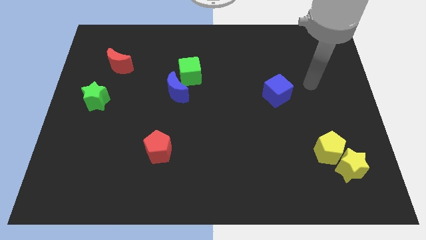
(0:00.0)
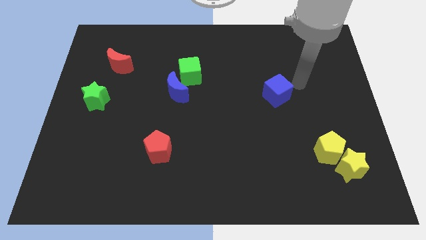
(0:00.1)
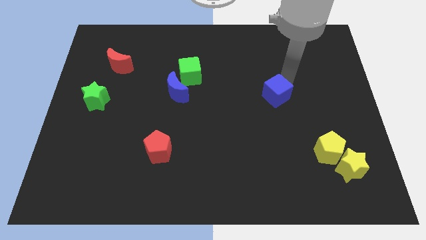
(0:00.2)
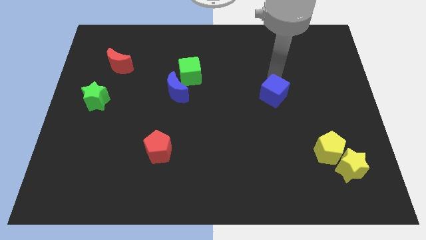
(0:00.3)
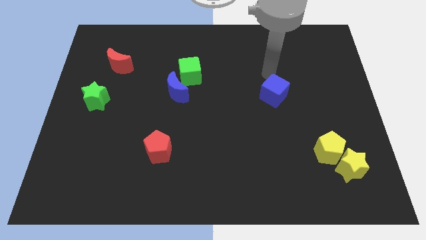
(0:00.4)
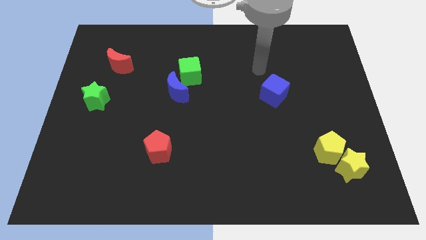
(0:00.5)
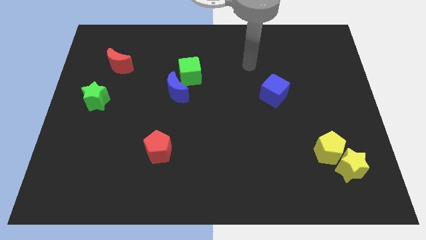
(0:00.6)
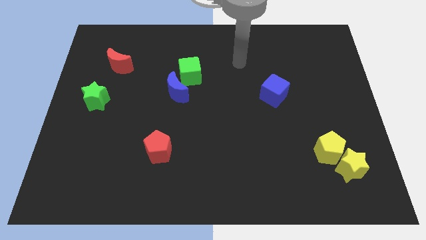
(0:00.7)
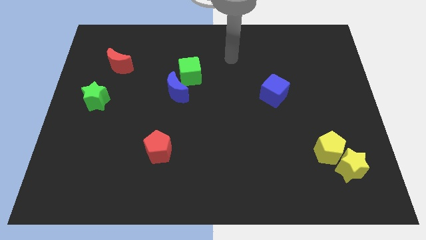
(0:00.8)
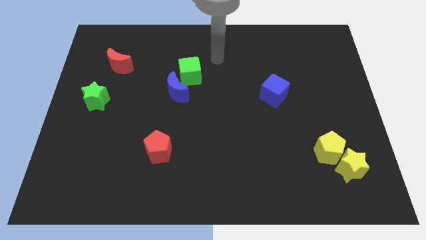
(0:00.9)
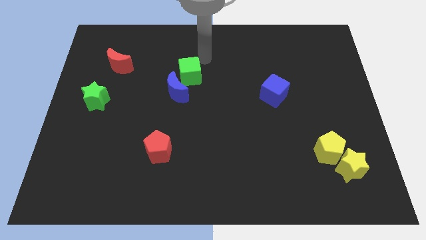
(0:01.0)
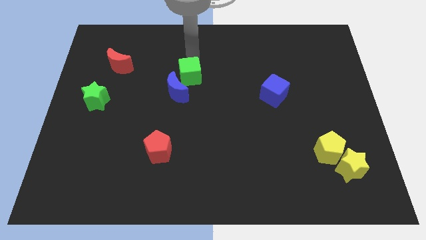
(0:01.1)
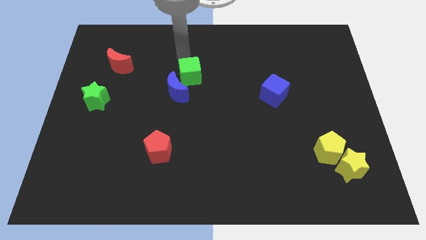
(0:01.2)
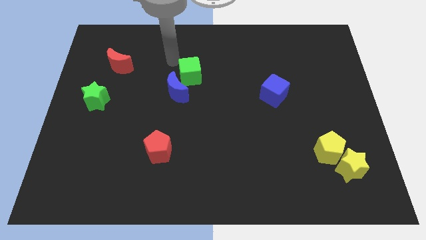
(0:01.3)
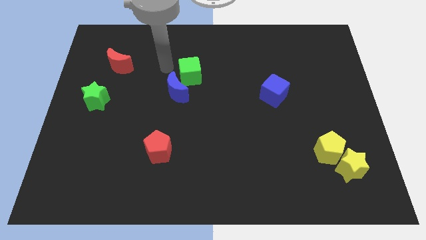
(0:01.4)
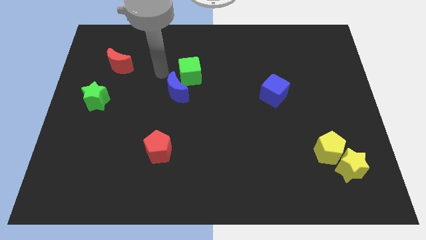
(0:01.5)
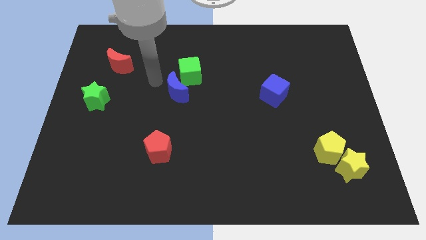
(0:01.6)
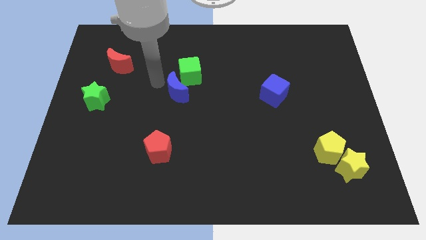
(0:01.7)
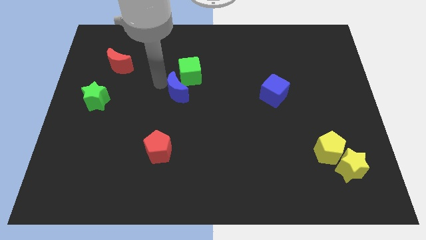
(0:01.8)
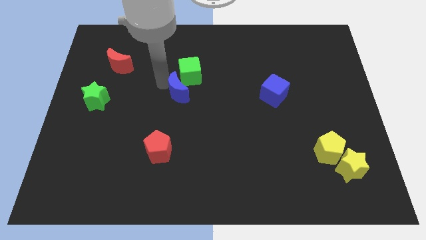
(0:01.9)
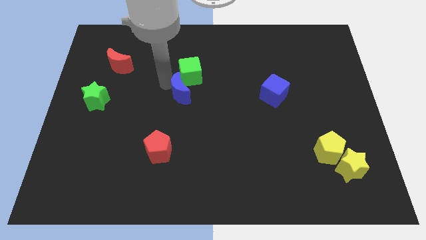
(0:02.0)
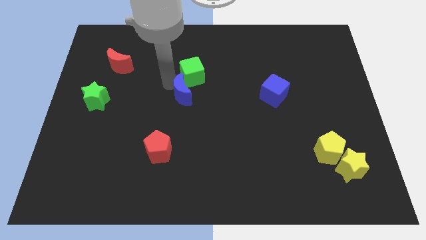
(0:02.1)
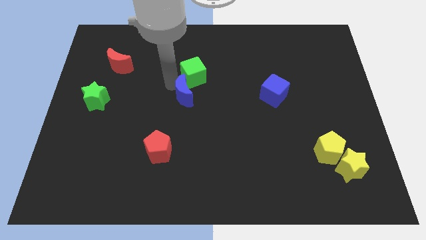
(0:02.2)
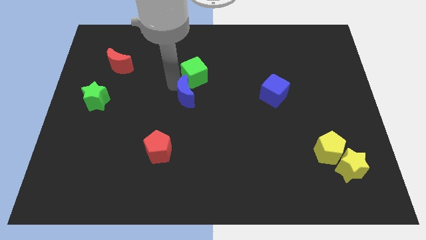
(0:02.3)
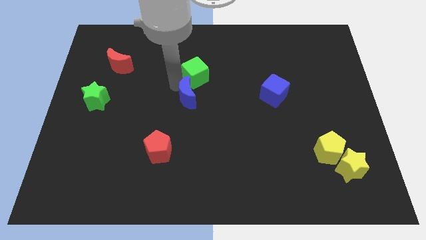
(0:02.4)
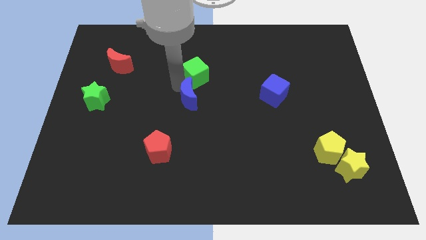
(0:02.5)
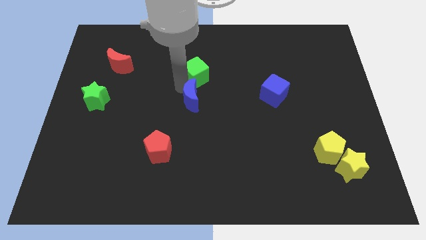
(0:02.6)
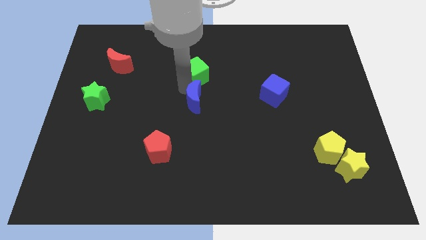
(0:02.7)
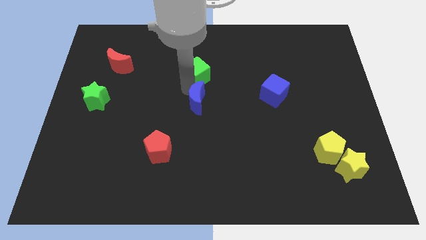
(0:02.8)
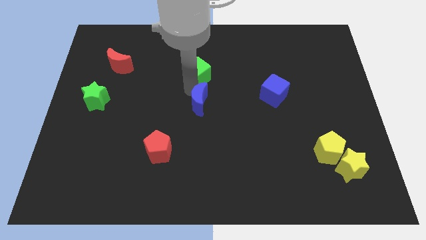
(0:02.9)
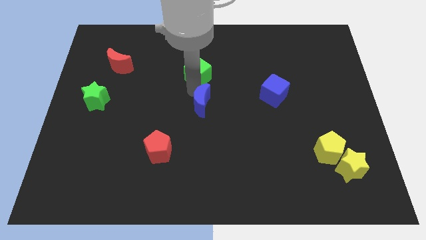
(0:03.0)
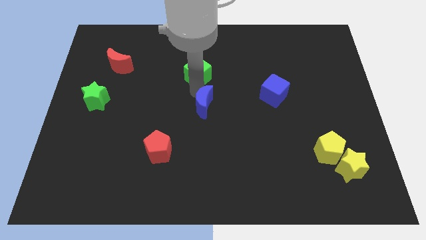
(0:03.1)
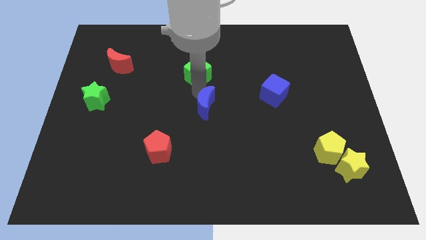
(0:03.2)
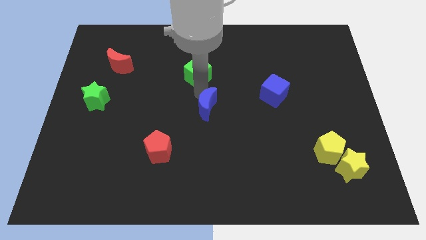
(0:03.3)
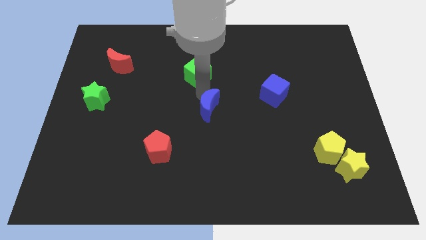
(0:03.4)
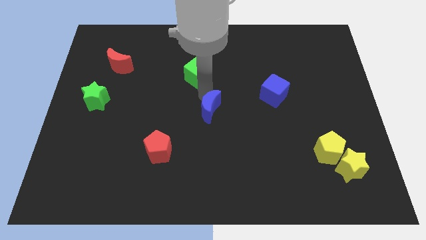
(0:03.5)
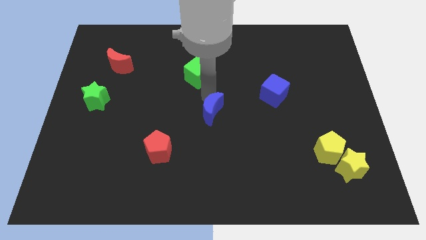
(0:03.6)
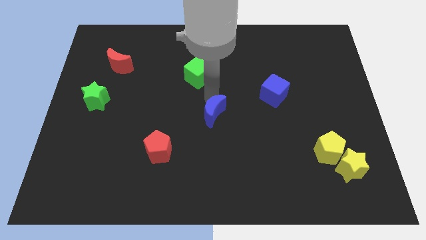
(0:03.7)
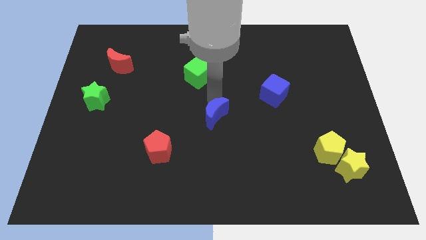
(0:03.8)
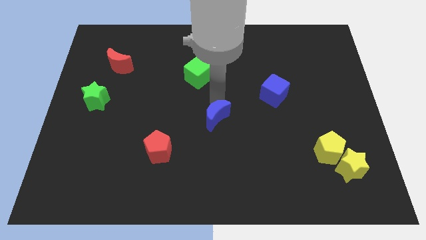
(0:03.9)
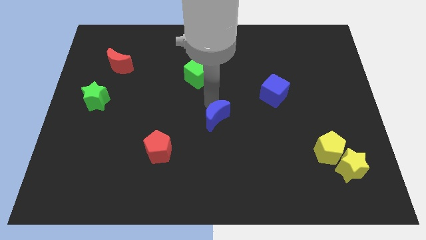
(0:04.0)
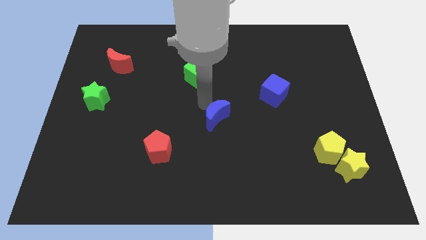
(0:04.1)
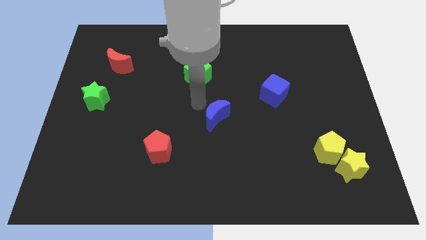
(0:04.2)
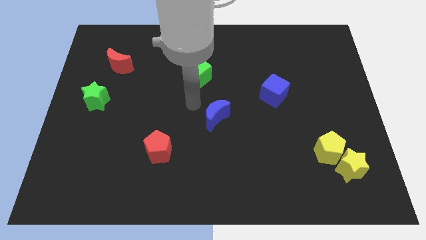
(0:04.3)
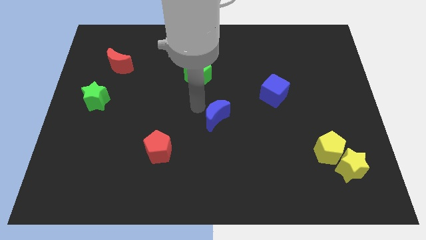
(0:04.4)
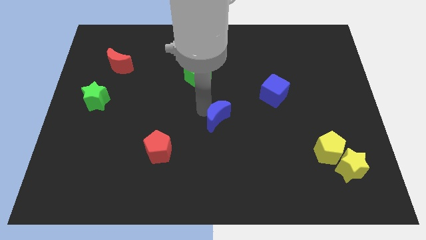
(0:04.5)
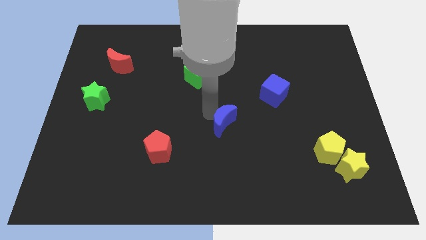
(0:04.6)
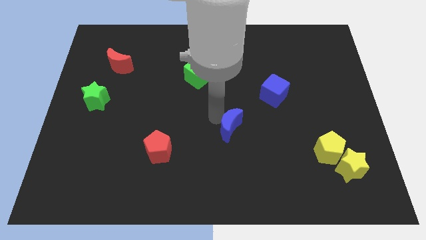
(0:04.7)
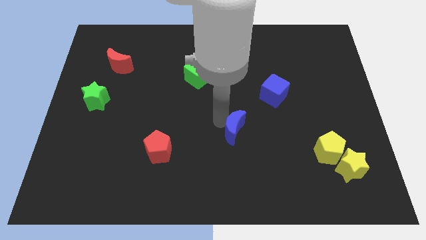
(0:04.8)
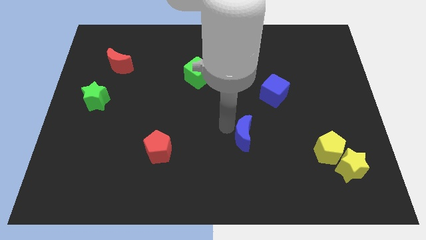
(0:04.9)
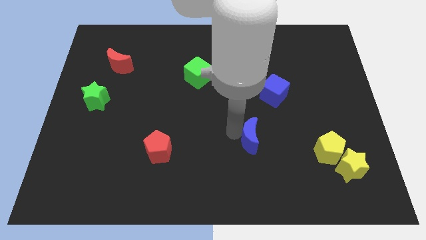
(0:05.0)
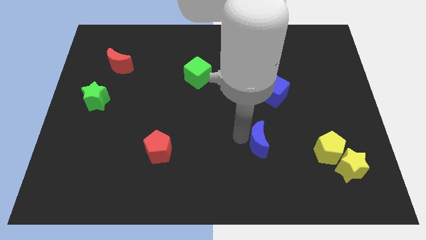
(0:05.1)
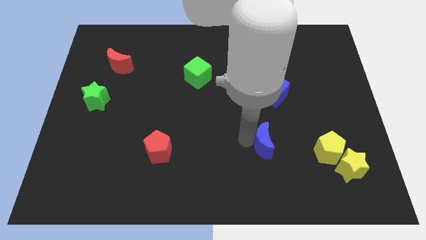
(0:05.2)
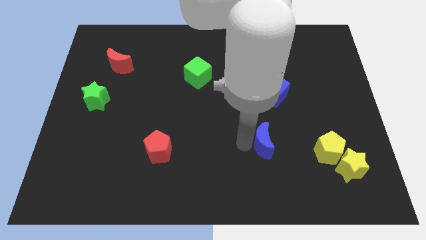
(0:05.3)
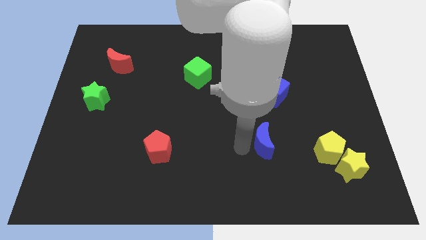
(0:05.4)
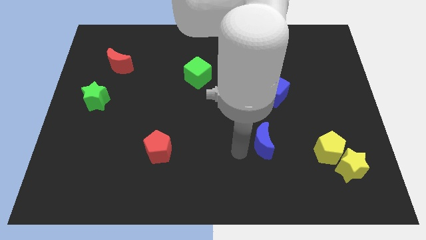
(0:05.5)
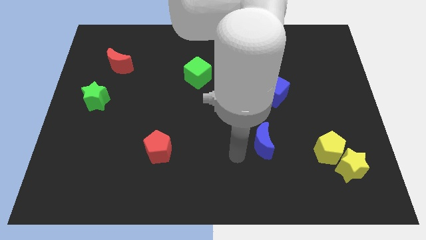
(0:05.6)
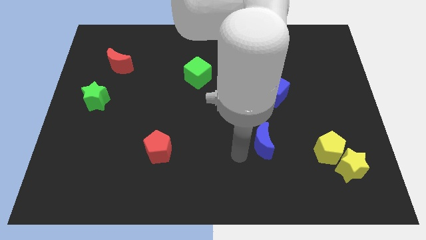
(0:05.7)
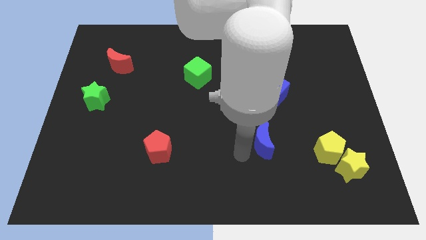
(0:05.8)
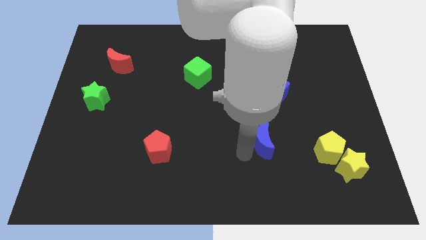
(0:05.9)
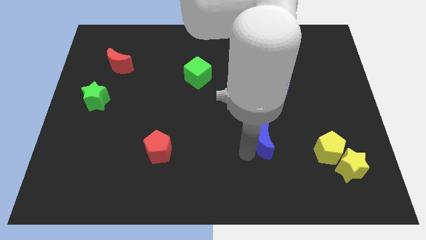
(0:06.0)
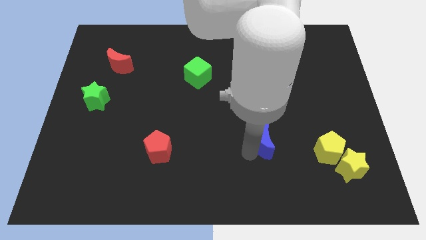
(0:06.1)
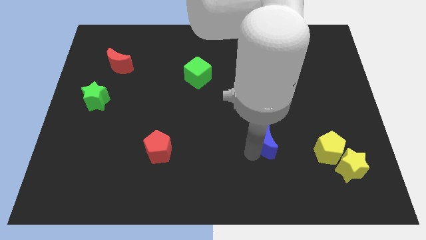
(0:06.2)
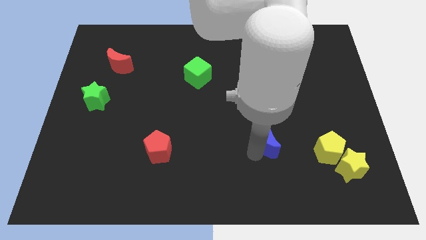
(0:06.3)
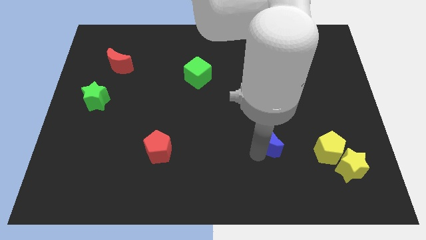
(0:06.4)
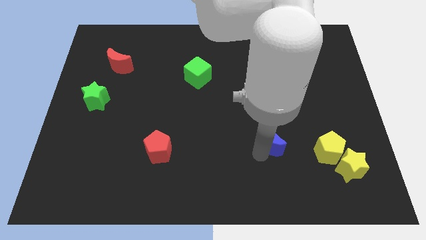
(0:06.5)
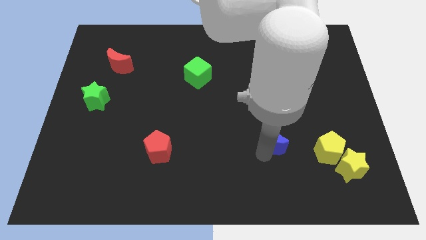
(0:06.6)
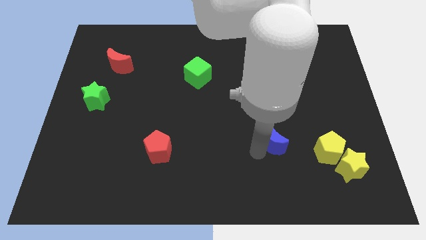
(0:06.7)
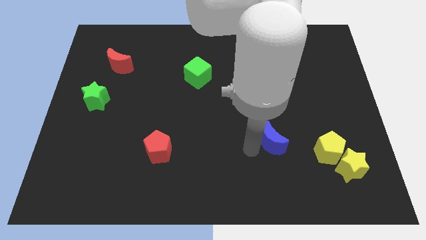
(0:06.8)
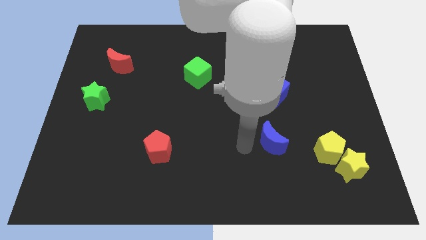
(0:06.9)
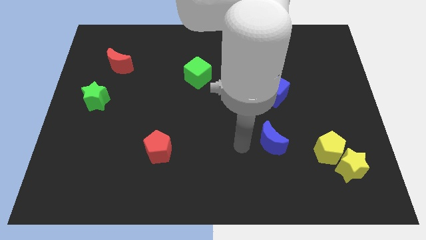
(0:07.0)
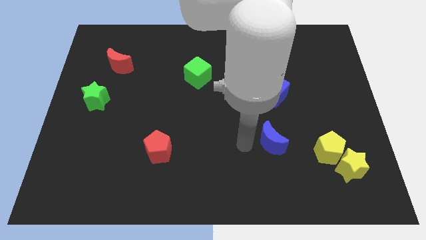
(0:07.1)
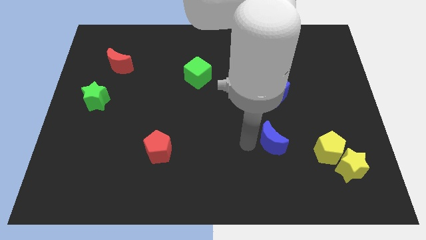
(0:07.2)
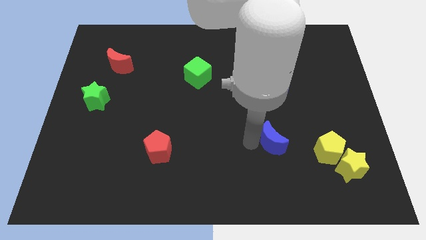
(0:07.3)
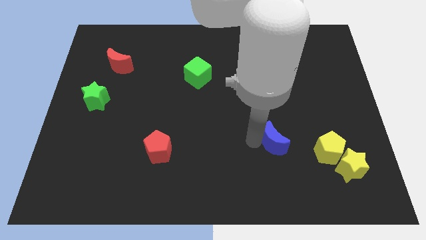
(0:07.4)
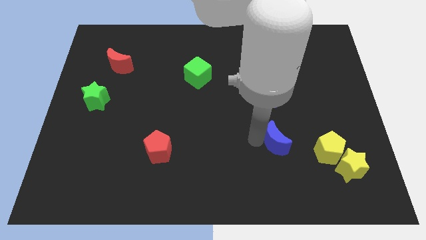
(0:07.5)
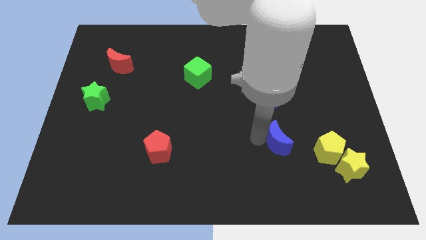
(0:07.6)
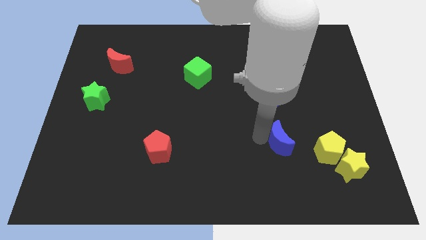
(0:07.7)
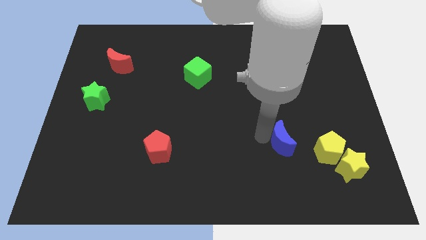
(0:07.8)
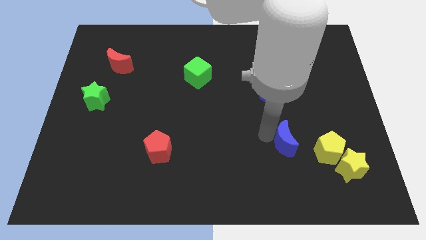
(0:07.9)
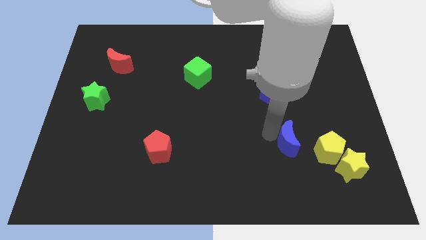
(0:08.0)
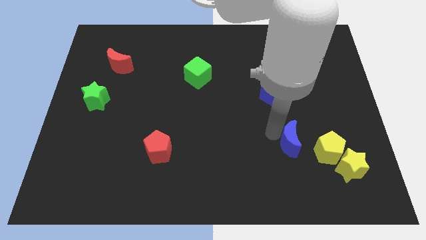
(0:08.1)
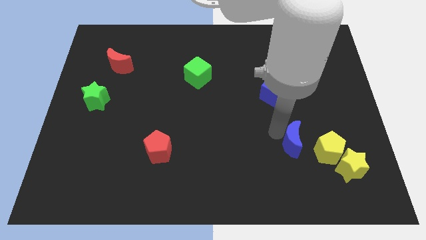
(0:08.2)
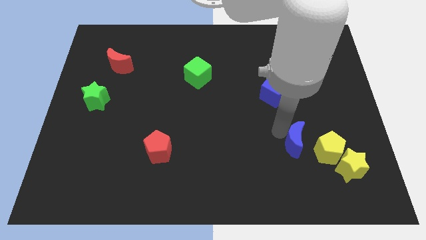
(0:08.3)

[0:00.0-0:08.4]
put the blue moon to the top left side of the yellow star
